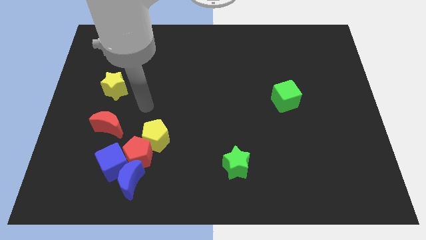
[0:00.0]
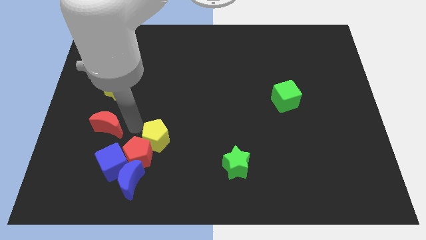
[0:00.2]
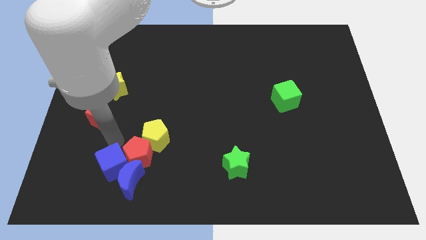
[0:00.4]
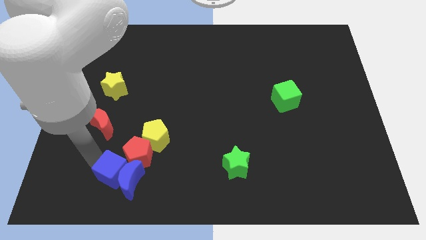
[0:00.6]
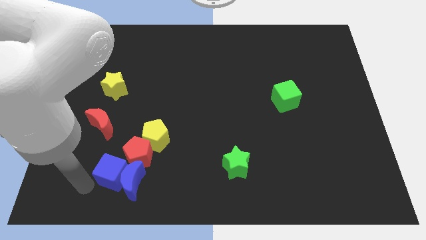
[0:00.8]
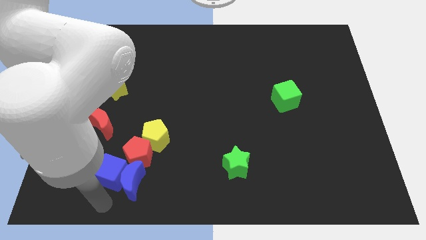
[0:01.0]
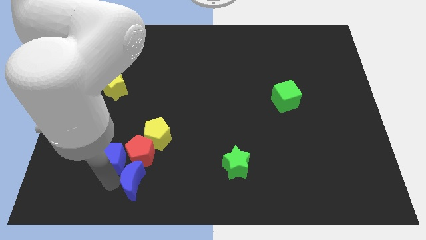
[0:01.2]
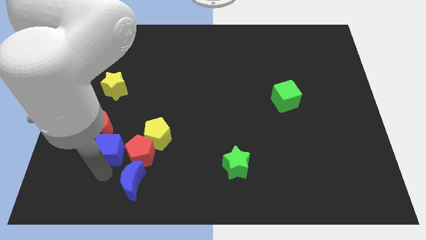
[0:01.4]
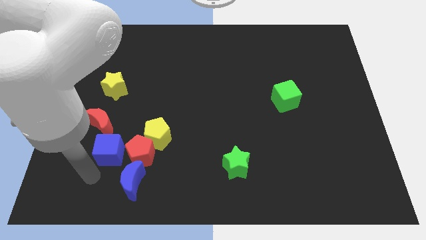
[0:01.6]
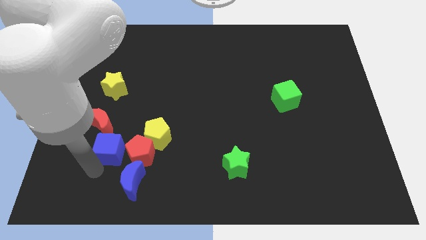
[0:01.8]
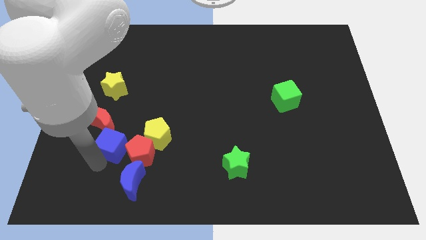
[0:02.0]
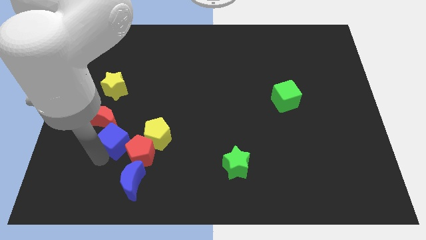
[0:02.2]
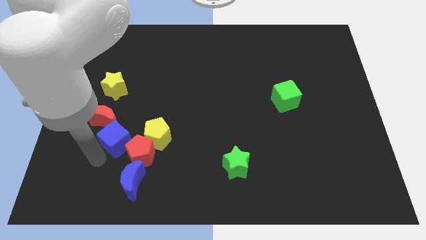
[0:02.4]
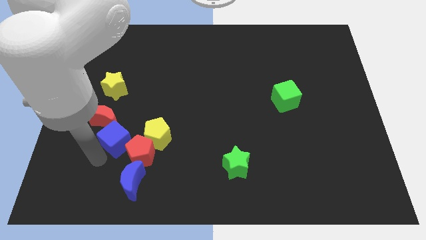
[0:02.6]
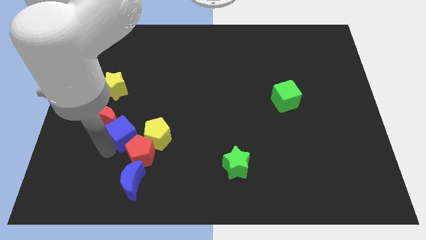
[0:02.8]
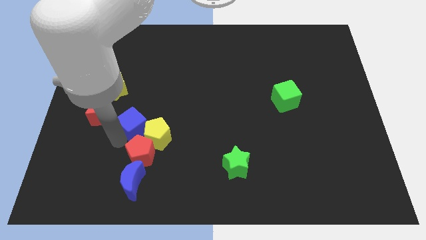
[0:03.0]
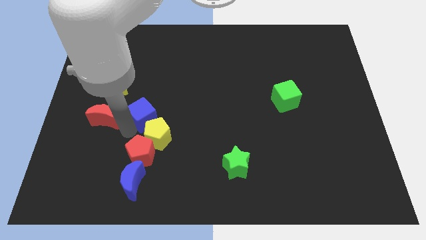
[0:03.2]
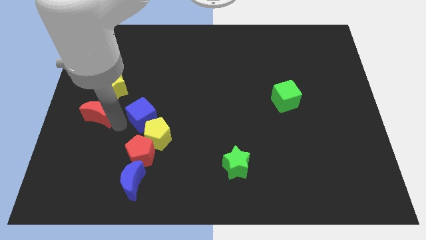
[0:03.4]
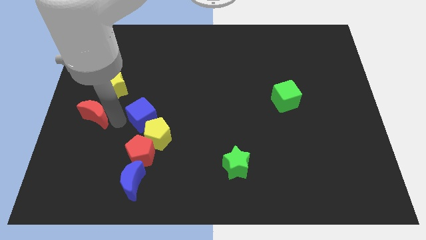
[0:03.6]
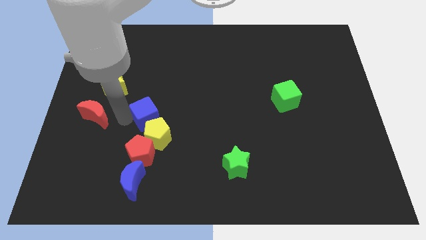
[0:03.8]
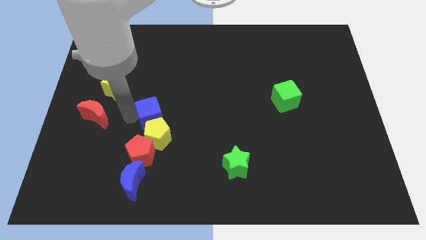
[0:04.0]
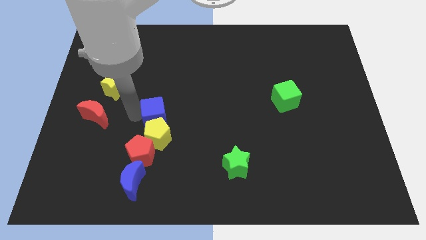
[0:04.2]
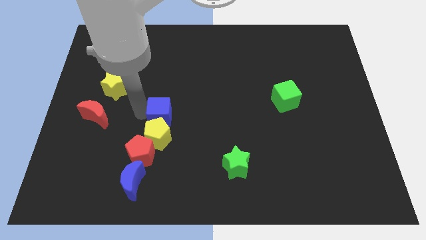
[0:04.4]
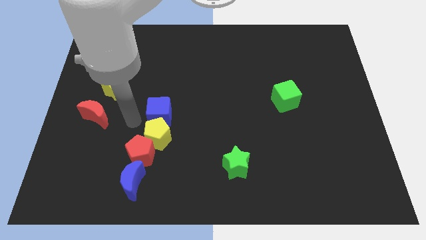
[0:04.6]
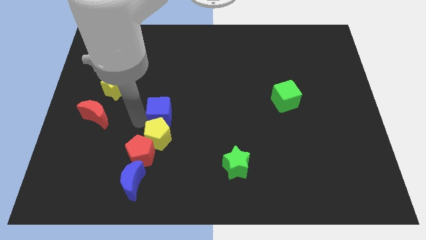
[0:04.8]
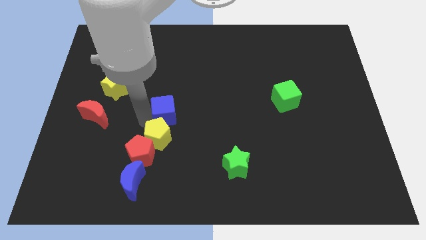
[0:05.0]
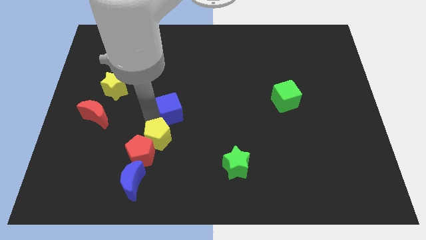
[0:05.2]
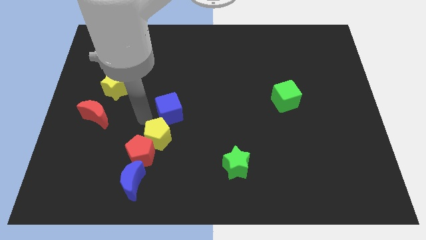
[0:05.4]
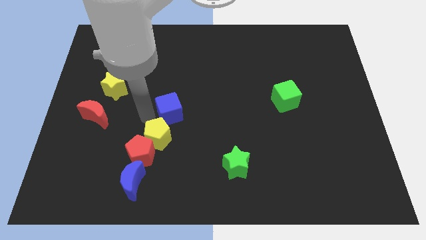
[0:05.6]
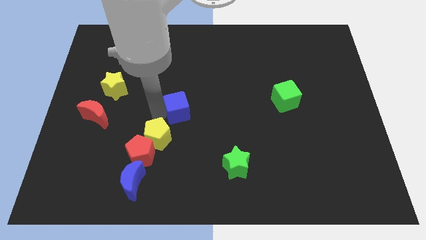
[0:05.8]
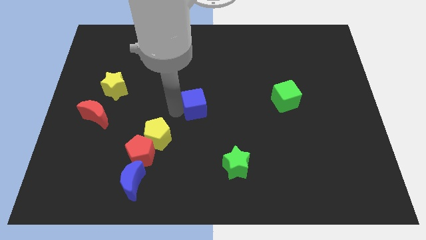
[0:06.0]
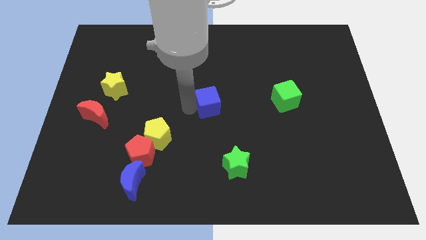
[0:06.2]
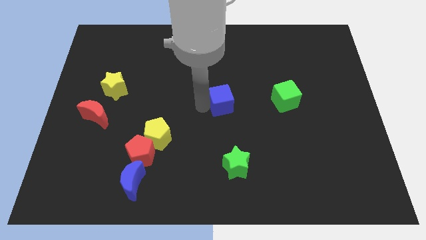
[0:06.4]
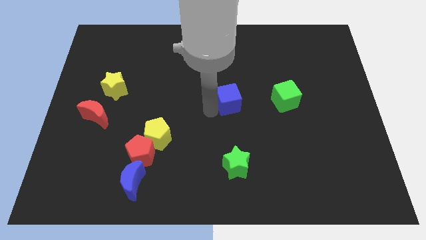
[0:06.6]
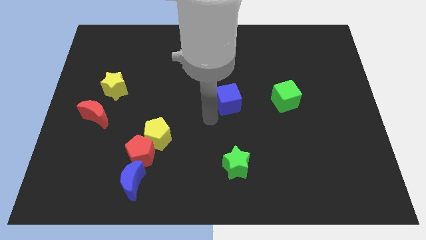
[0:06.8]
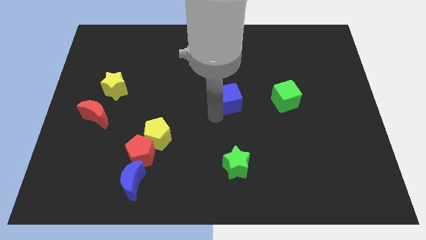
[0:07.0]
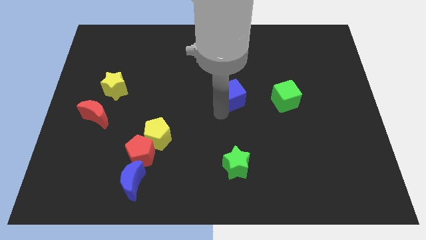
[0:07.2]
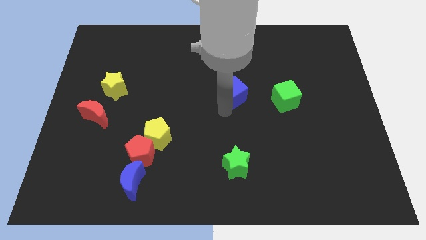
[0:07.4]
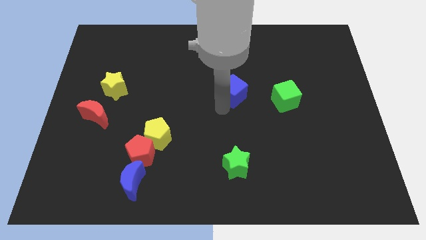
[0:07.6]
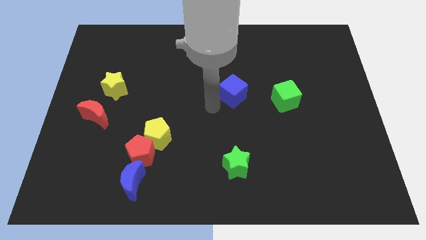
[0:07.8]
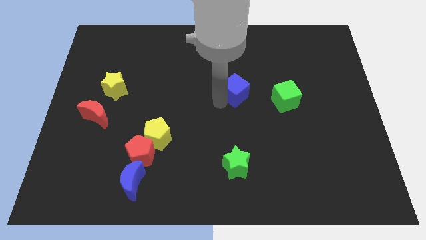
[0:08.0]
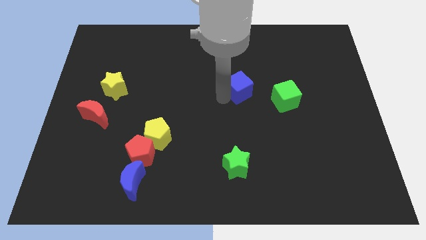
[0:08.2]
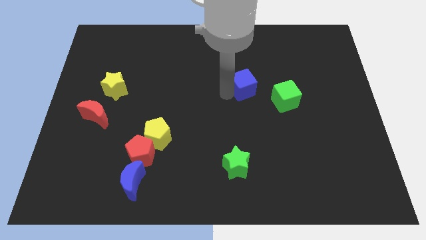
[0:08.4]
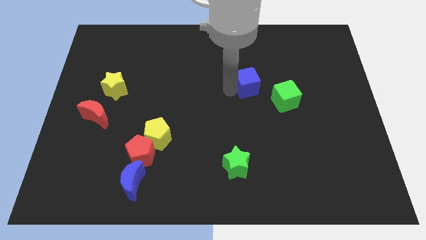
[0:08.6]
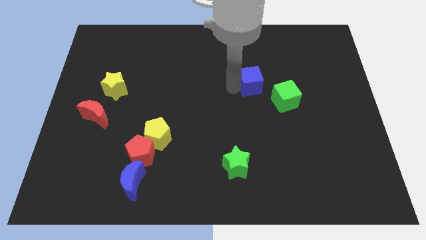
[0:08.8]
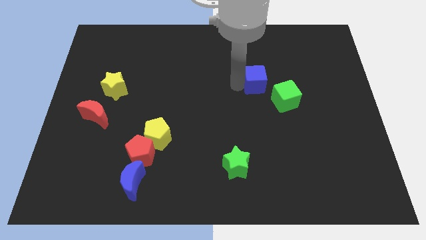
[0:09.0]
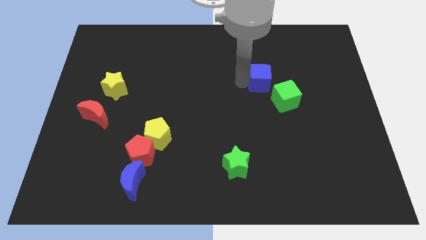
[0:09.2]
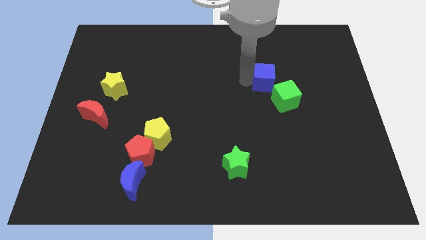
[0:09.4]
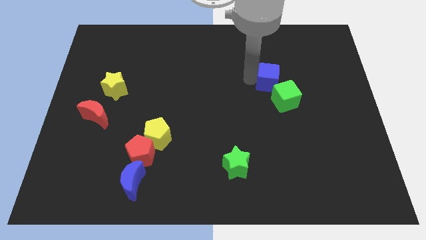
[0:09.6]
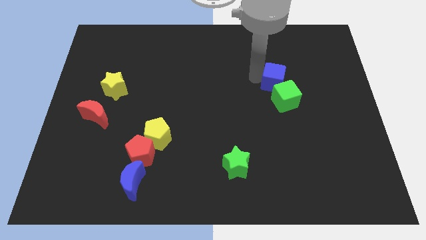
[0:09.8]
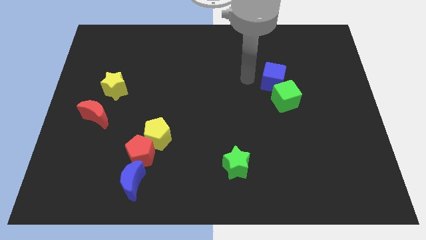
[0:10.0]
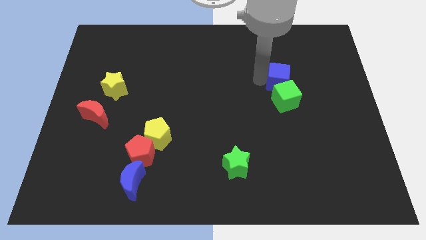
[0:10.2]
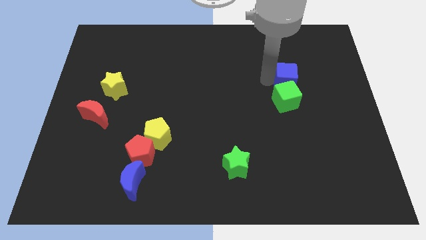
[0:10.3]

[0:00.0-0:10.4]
put the blue cube to the top right side of the green cube

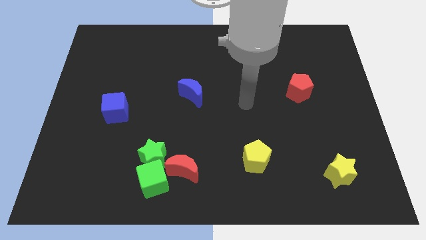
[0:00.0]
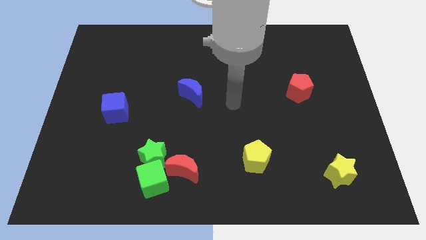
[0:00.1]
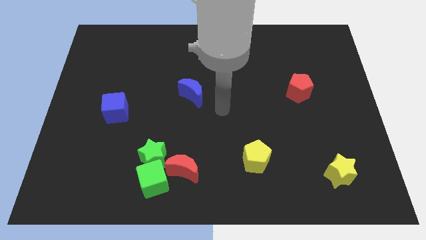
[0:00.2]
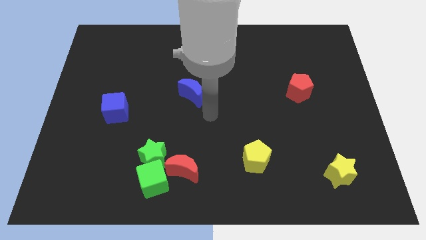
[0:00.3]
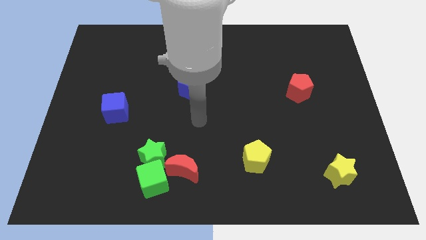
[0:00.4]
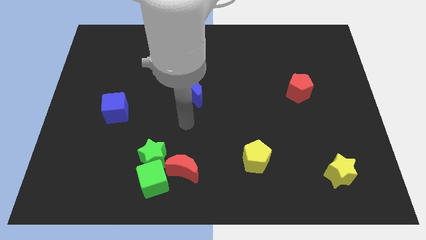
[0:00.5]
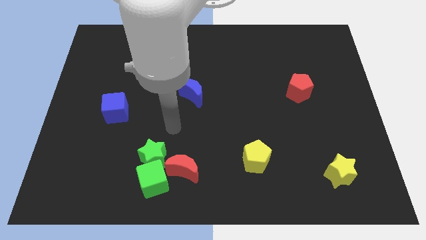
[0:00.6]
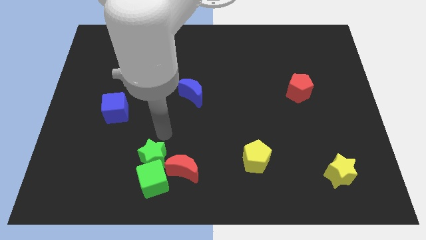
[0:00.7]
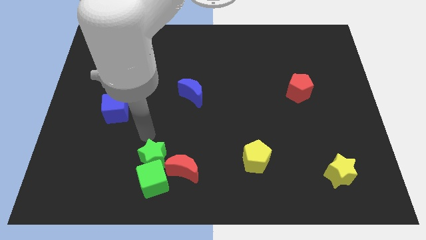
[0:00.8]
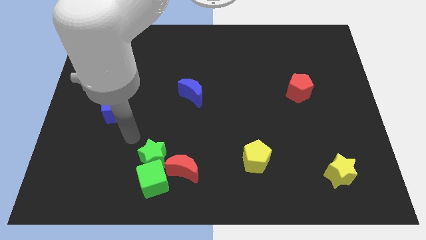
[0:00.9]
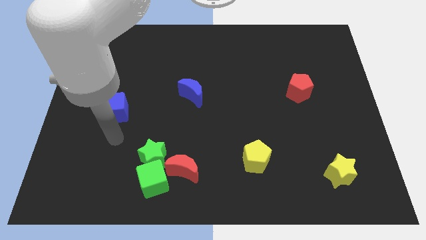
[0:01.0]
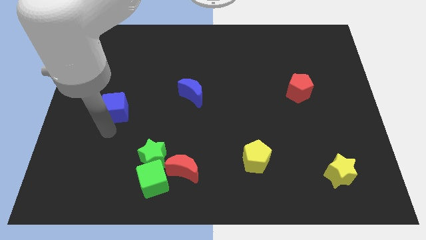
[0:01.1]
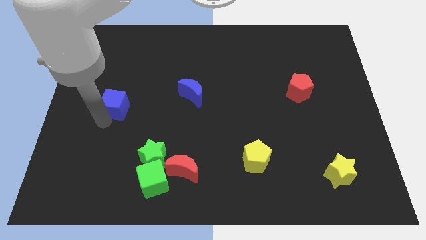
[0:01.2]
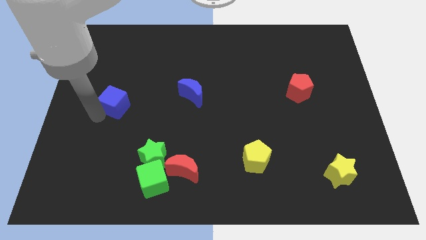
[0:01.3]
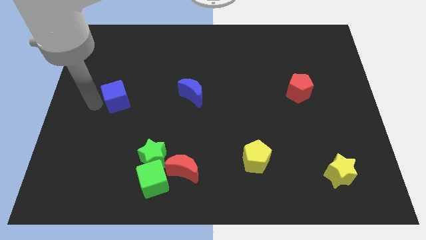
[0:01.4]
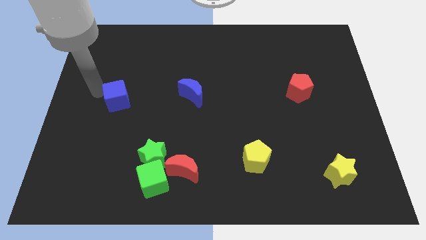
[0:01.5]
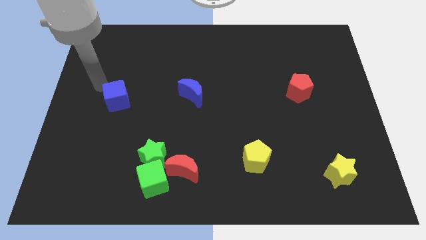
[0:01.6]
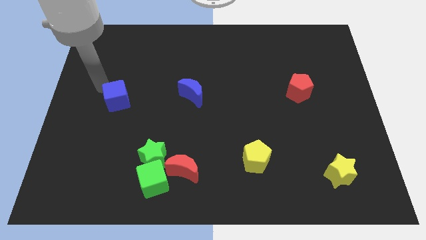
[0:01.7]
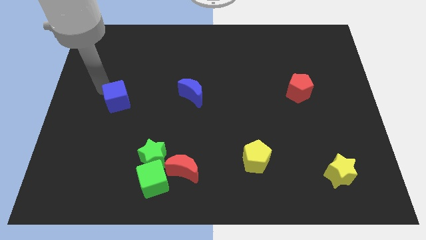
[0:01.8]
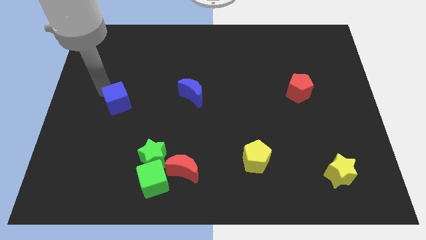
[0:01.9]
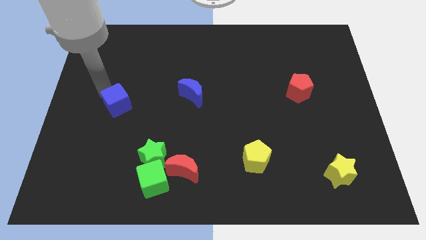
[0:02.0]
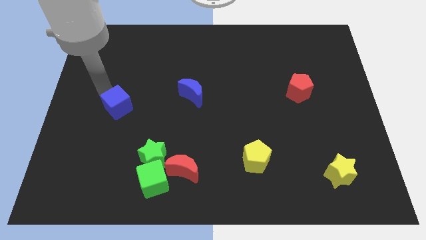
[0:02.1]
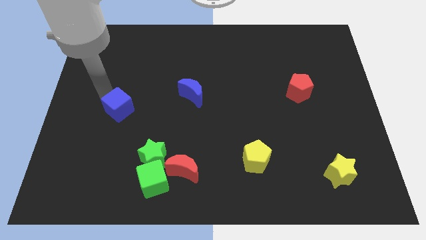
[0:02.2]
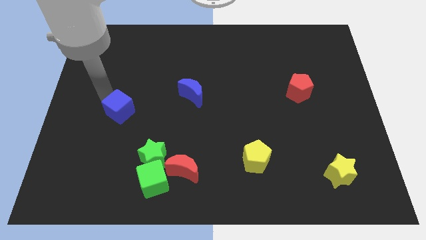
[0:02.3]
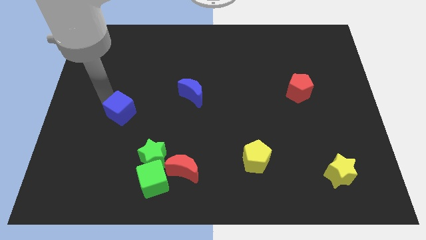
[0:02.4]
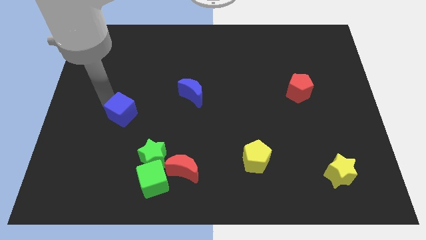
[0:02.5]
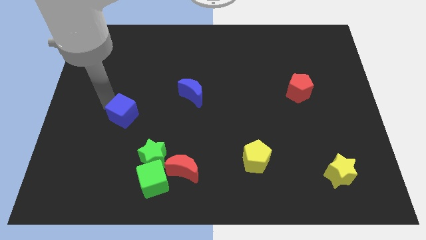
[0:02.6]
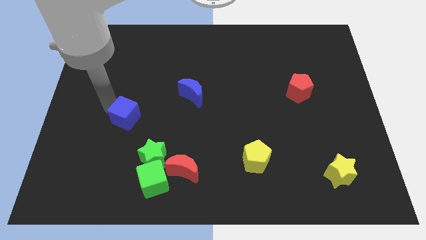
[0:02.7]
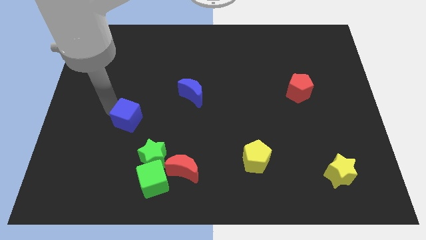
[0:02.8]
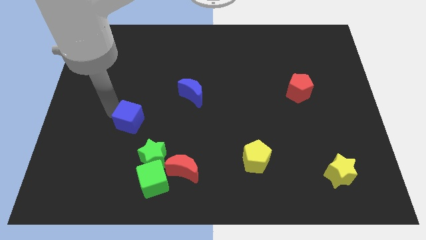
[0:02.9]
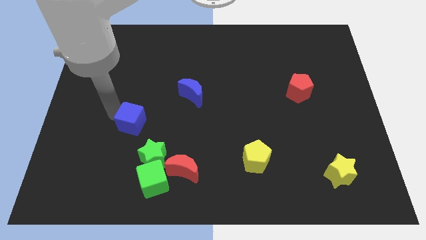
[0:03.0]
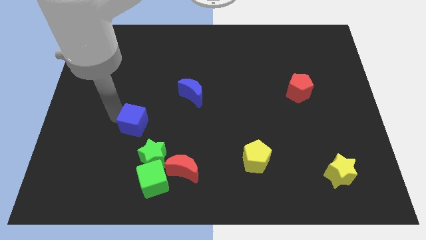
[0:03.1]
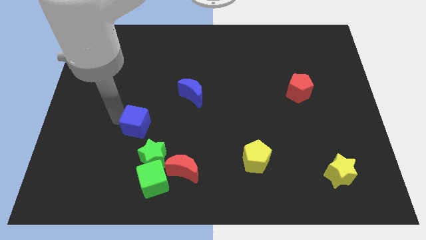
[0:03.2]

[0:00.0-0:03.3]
slide the blue cube to the top of the green star
